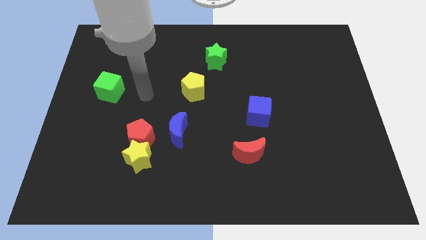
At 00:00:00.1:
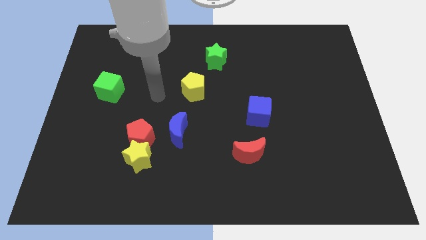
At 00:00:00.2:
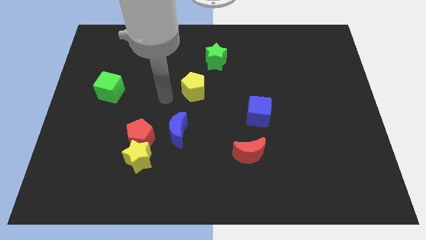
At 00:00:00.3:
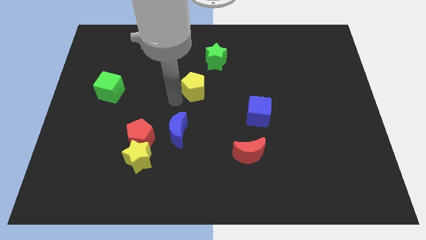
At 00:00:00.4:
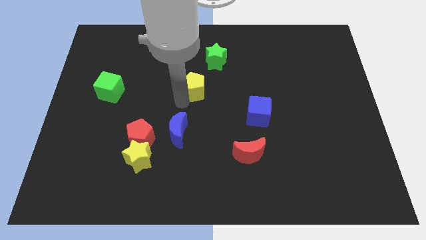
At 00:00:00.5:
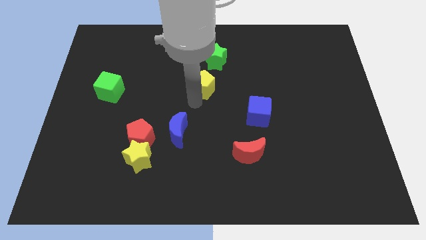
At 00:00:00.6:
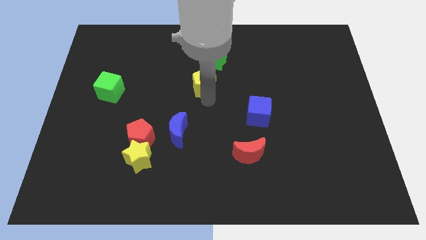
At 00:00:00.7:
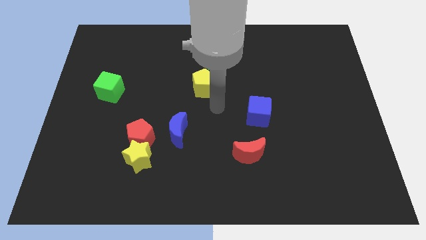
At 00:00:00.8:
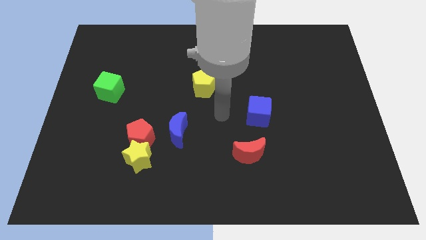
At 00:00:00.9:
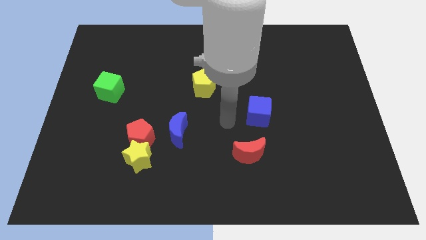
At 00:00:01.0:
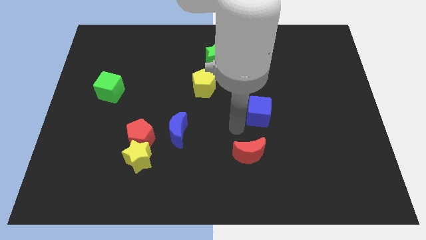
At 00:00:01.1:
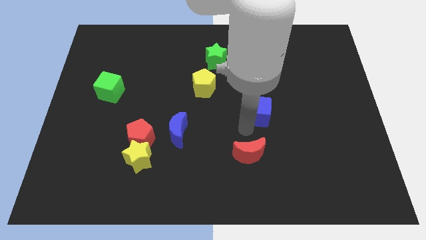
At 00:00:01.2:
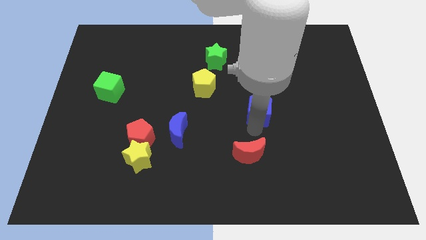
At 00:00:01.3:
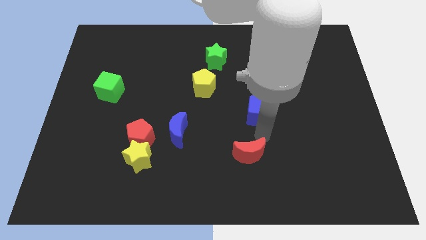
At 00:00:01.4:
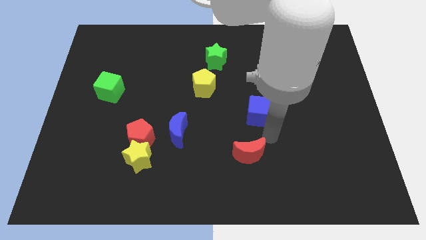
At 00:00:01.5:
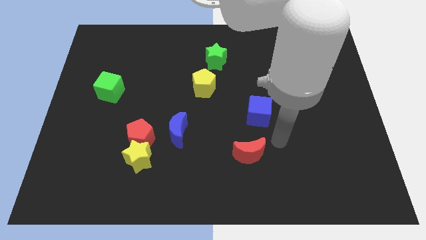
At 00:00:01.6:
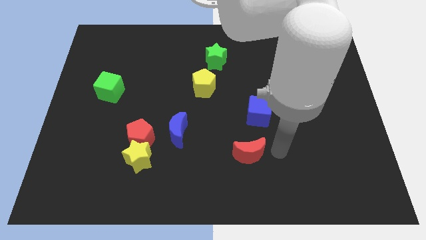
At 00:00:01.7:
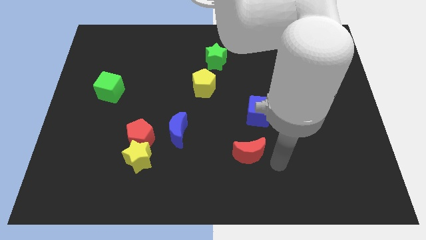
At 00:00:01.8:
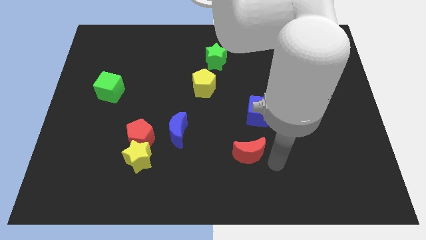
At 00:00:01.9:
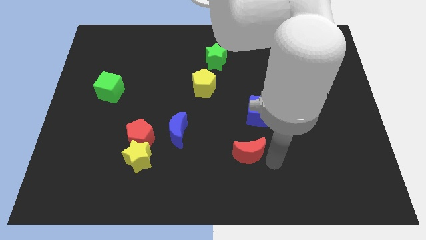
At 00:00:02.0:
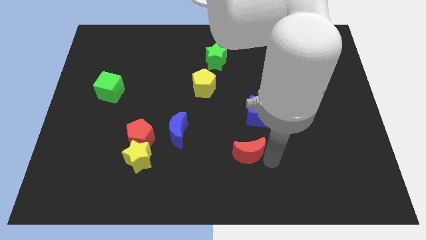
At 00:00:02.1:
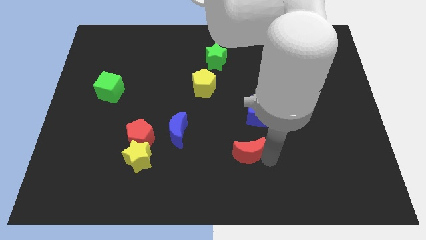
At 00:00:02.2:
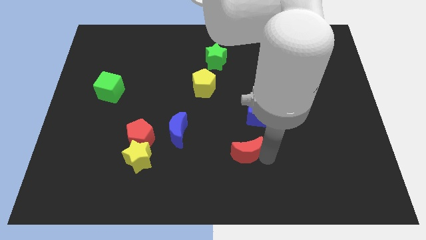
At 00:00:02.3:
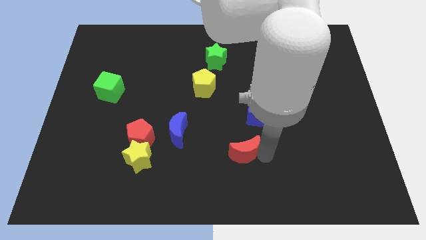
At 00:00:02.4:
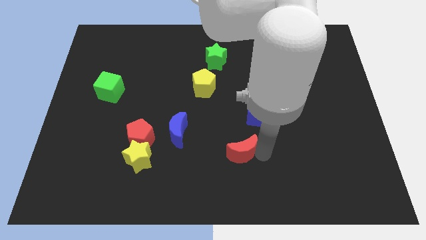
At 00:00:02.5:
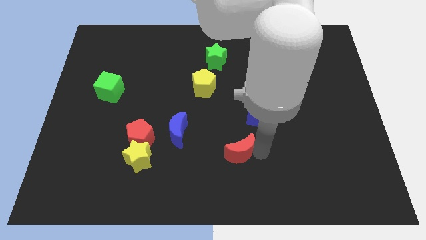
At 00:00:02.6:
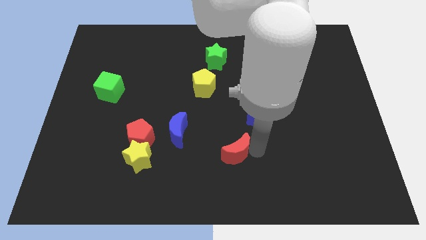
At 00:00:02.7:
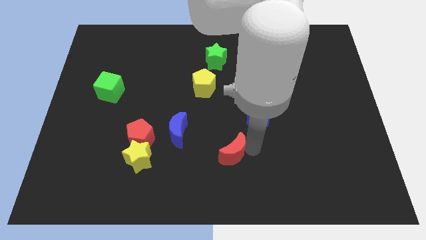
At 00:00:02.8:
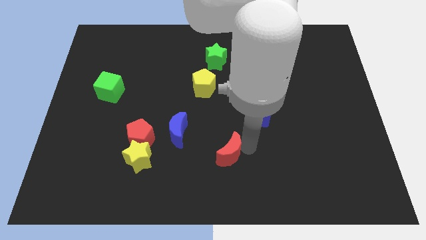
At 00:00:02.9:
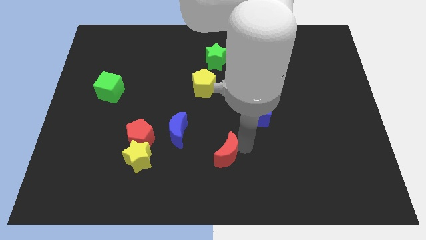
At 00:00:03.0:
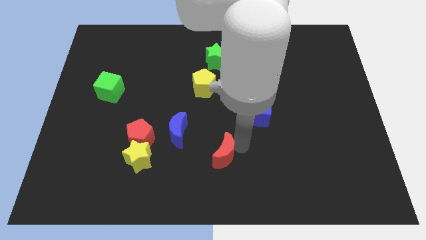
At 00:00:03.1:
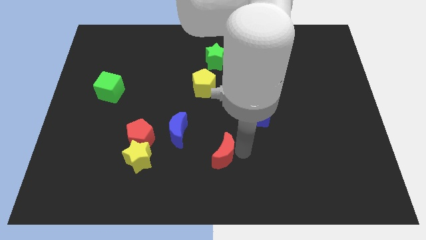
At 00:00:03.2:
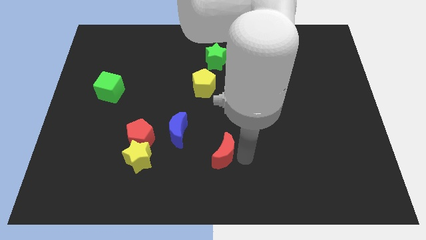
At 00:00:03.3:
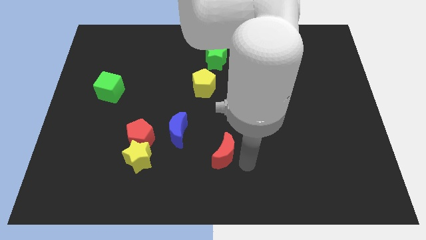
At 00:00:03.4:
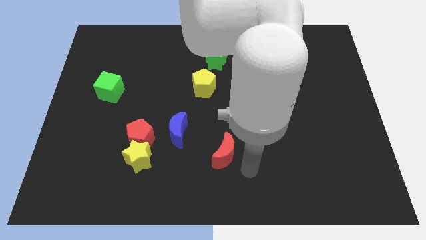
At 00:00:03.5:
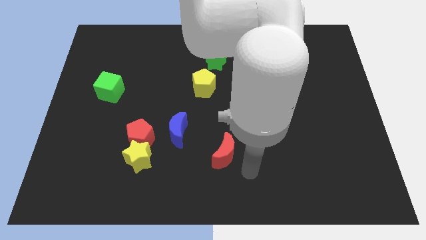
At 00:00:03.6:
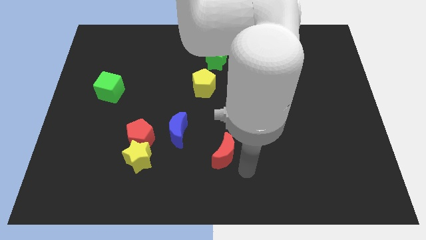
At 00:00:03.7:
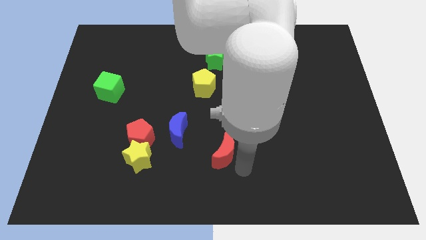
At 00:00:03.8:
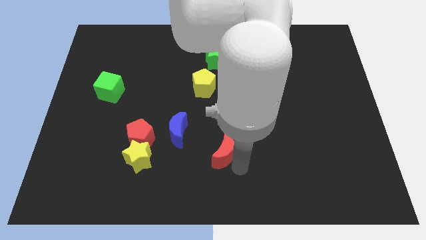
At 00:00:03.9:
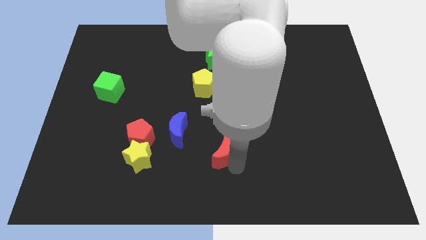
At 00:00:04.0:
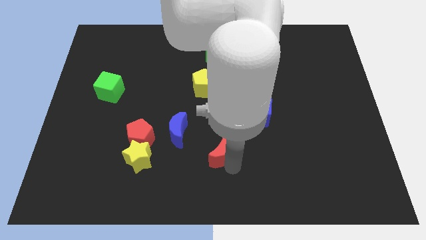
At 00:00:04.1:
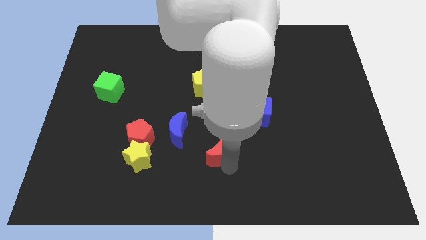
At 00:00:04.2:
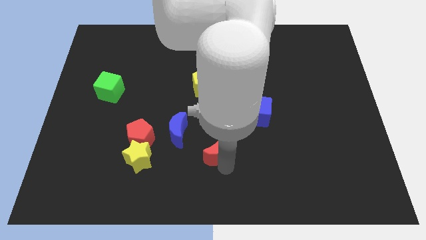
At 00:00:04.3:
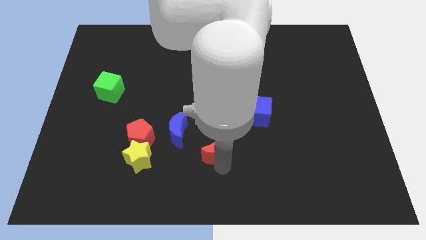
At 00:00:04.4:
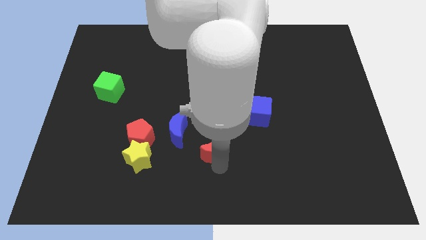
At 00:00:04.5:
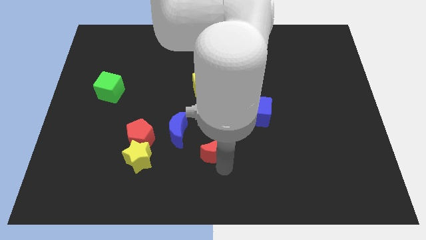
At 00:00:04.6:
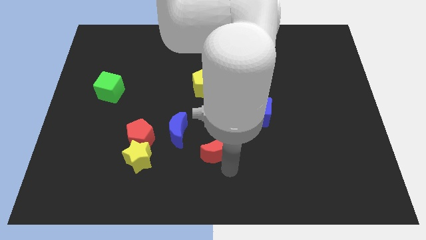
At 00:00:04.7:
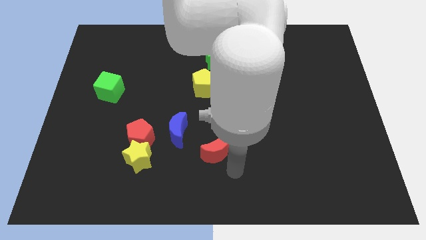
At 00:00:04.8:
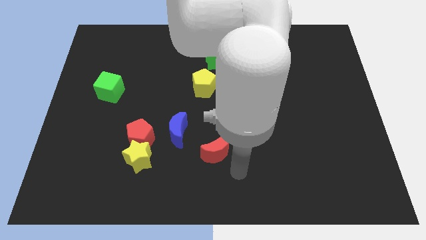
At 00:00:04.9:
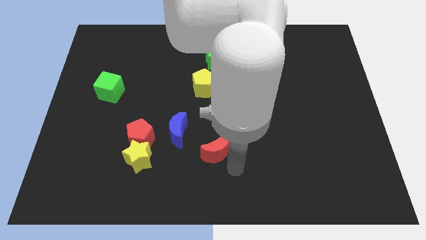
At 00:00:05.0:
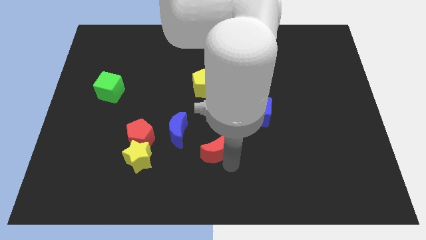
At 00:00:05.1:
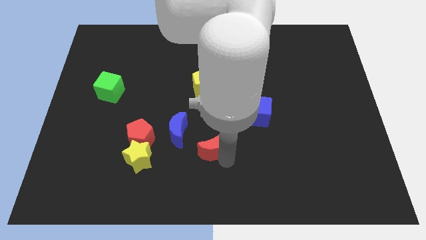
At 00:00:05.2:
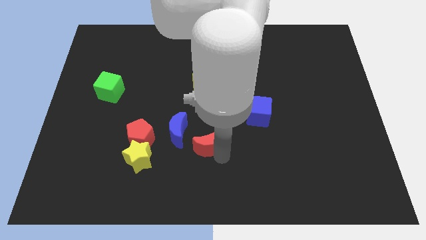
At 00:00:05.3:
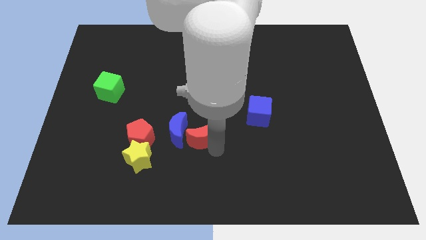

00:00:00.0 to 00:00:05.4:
put the red moon close to the blue moon

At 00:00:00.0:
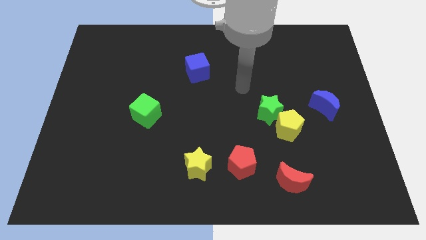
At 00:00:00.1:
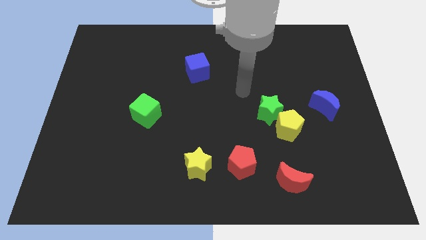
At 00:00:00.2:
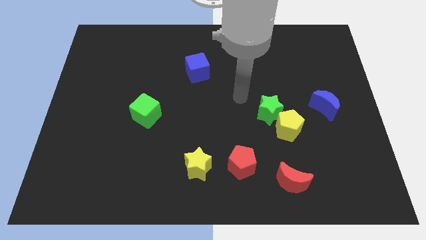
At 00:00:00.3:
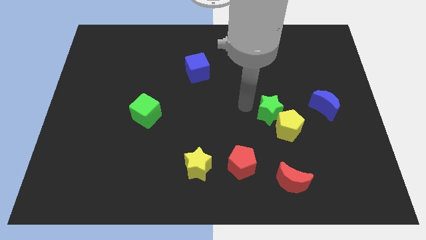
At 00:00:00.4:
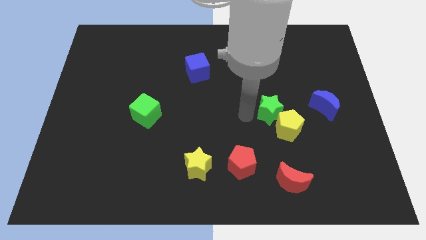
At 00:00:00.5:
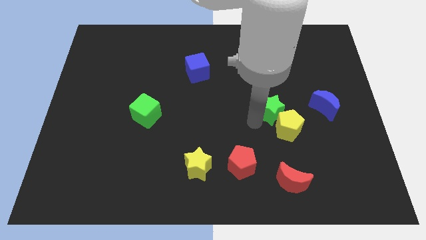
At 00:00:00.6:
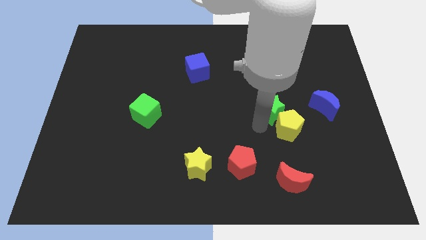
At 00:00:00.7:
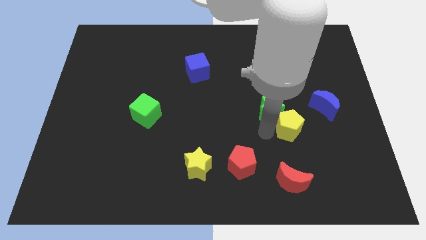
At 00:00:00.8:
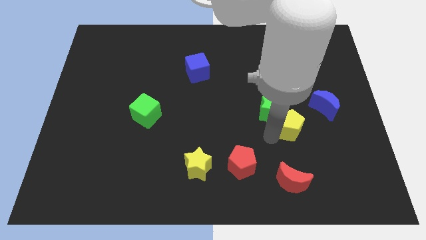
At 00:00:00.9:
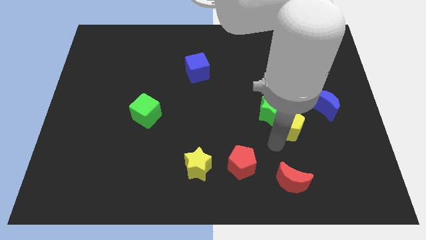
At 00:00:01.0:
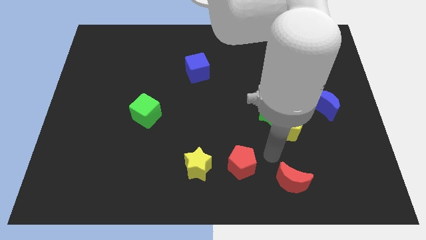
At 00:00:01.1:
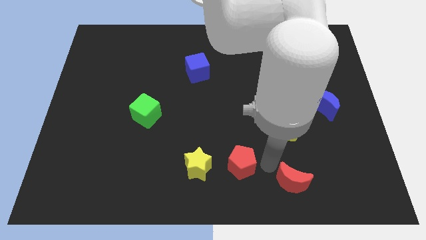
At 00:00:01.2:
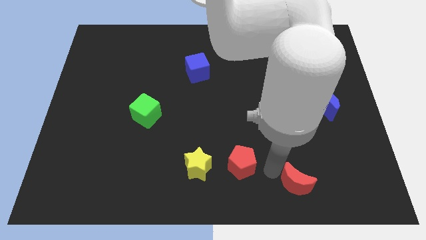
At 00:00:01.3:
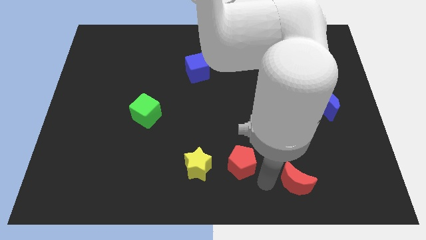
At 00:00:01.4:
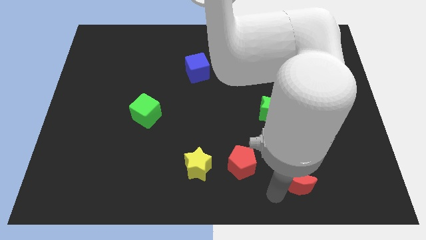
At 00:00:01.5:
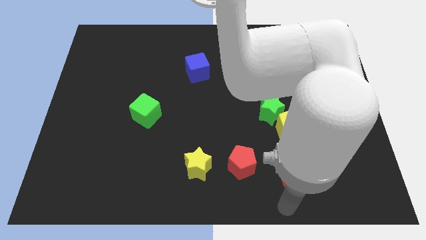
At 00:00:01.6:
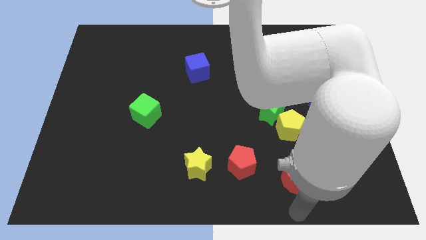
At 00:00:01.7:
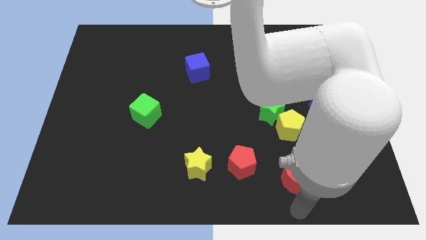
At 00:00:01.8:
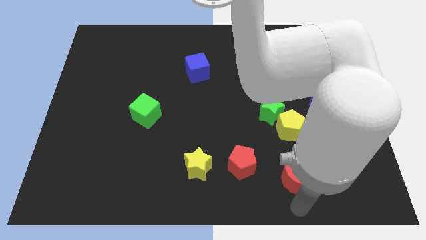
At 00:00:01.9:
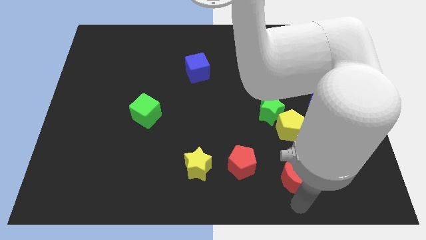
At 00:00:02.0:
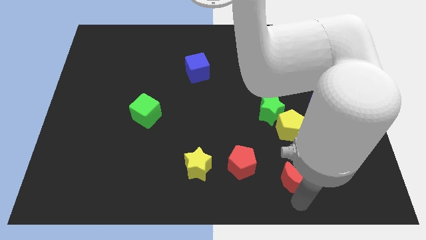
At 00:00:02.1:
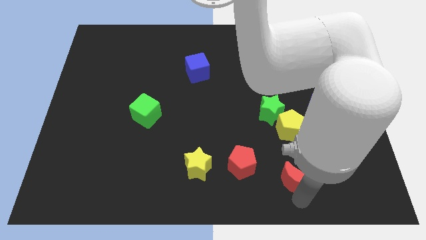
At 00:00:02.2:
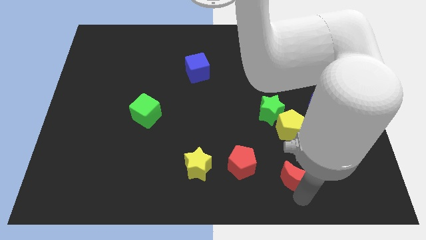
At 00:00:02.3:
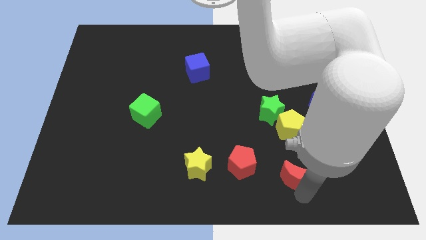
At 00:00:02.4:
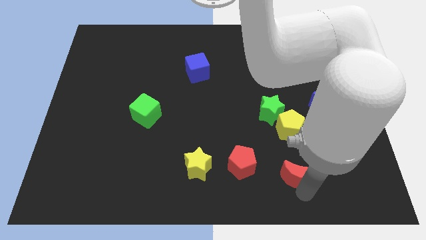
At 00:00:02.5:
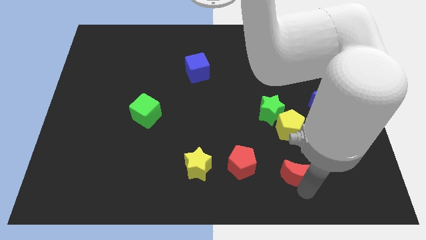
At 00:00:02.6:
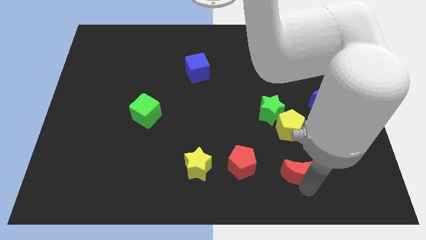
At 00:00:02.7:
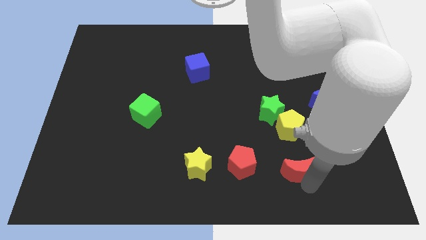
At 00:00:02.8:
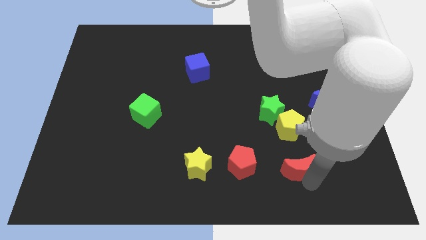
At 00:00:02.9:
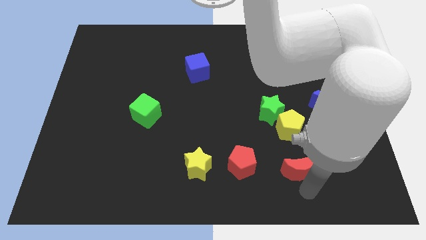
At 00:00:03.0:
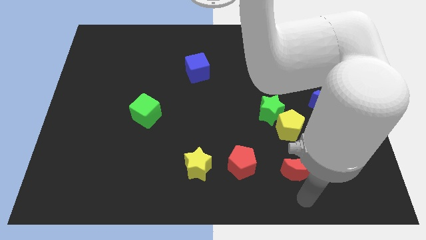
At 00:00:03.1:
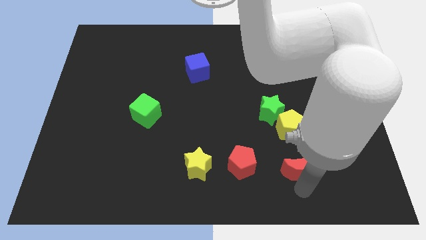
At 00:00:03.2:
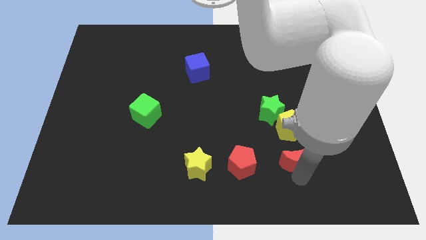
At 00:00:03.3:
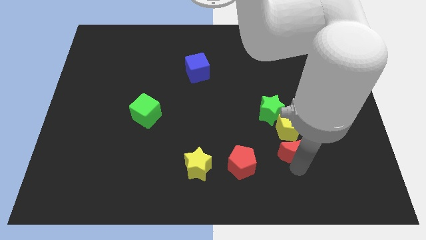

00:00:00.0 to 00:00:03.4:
slide the red moon to the yellow pentagon
